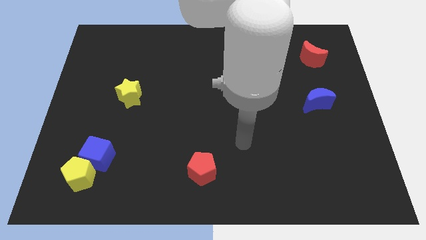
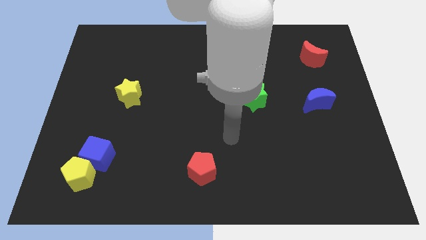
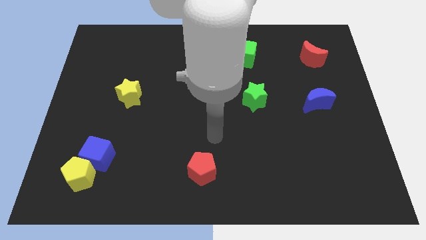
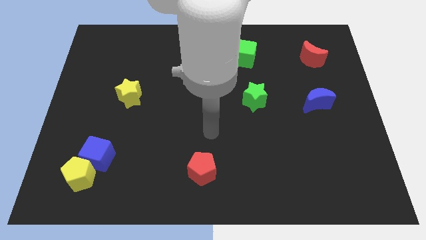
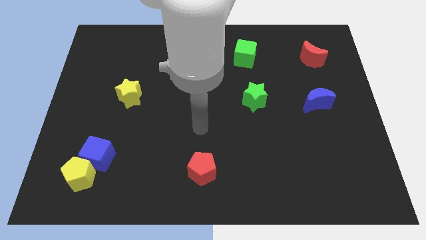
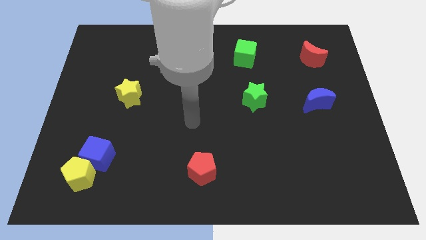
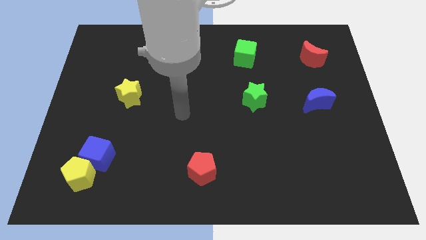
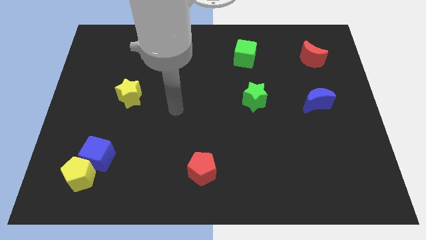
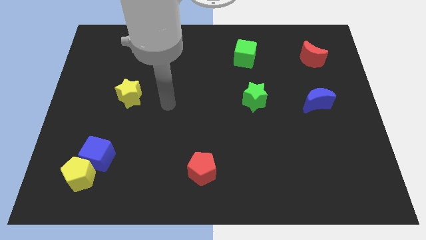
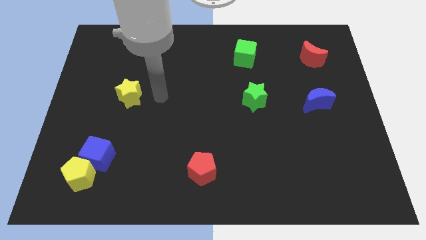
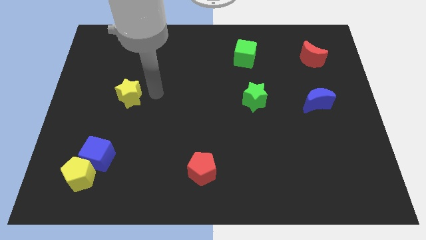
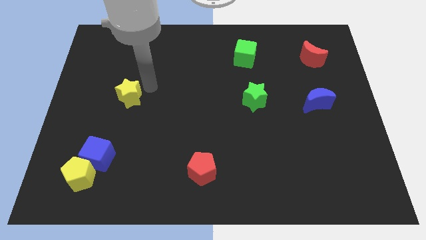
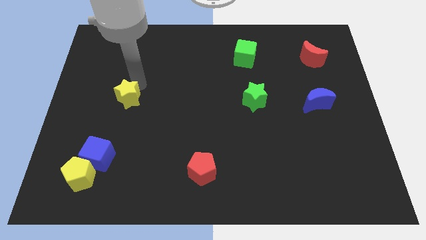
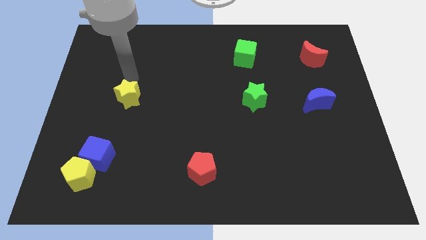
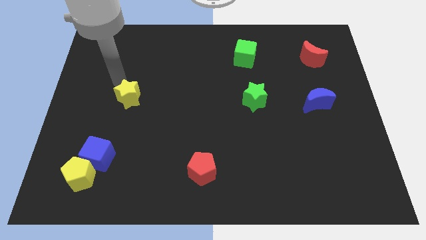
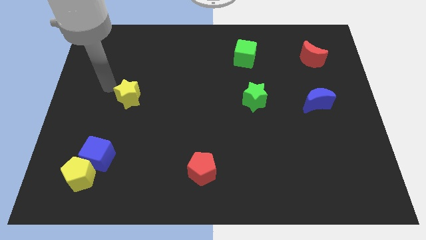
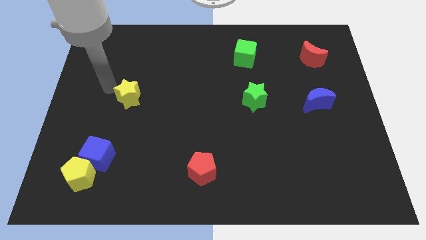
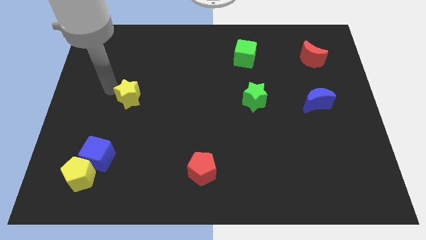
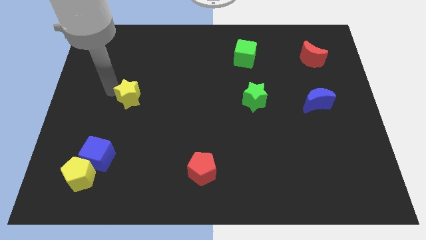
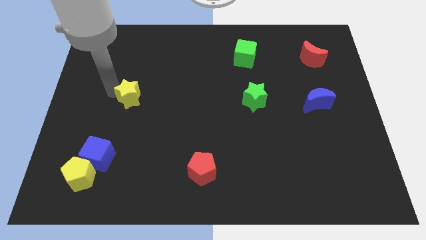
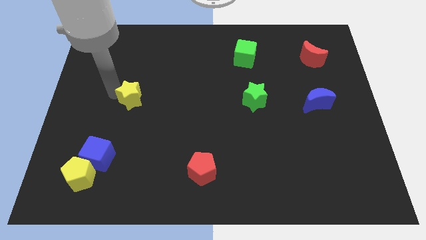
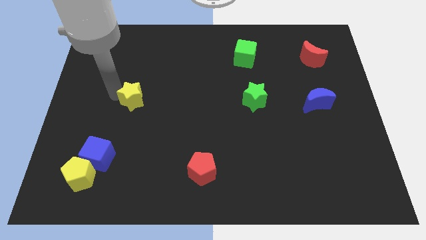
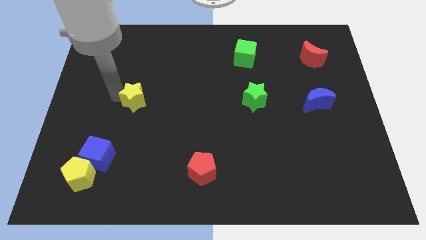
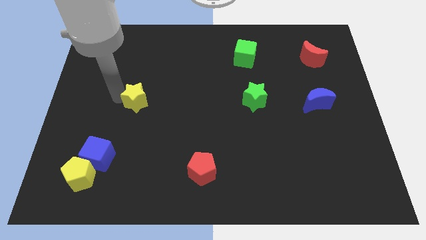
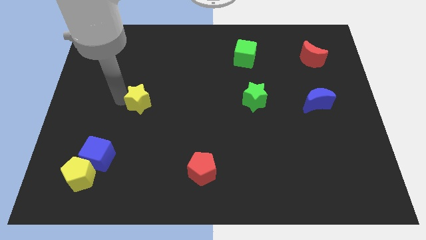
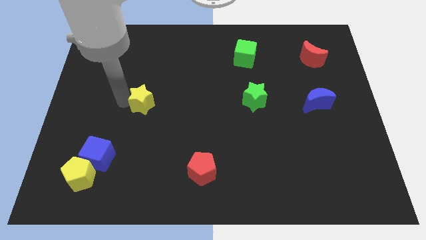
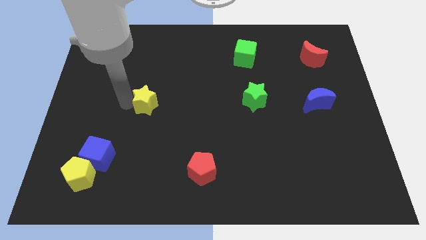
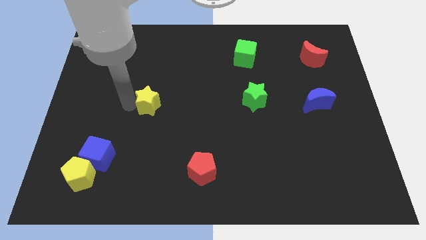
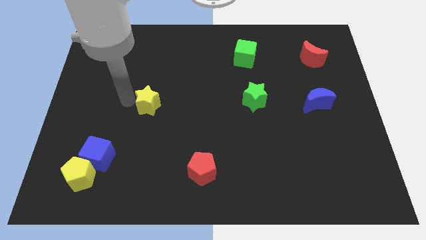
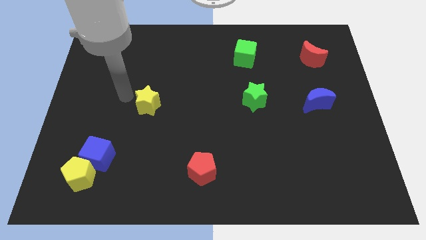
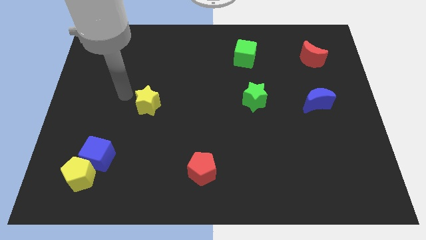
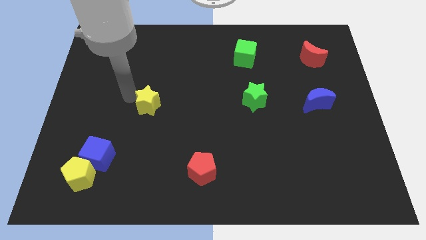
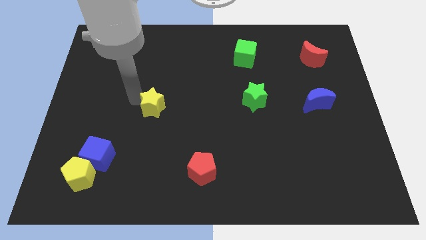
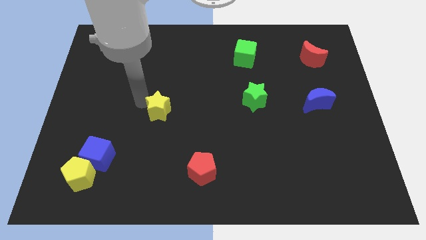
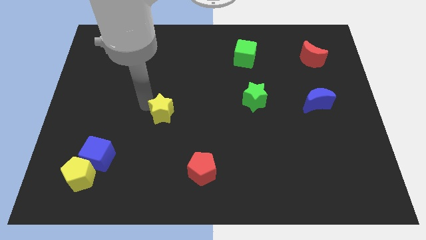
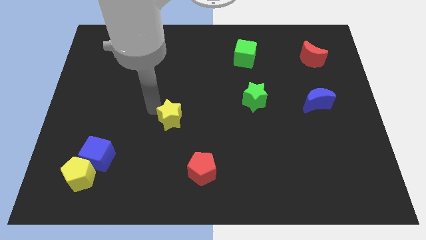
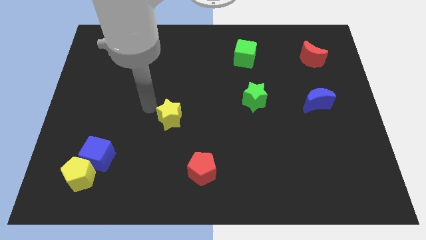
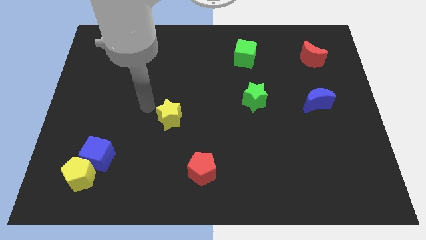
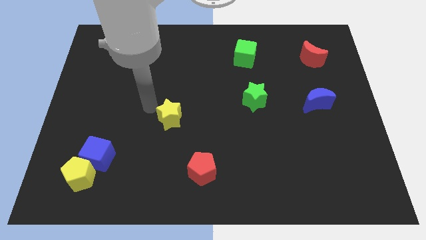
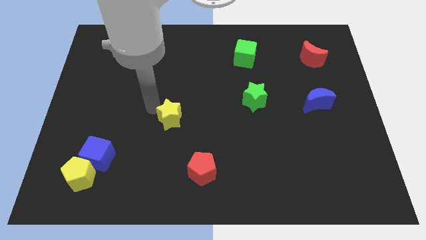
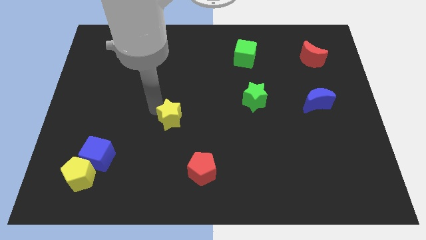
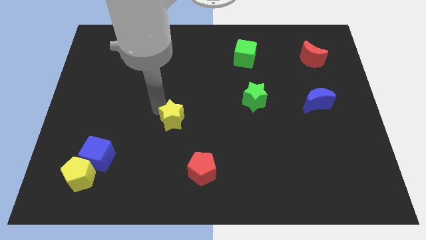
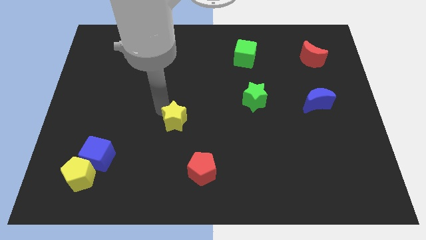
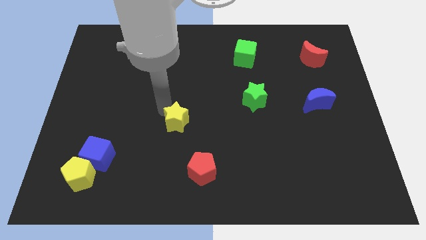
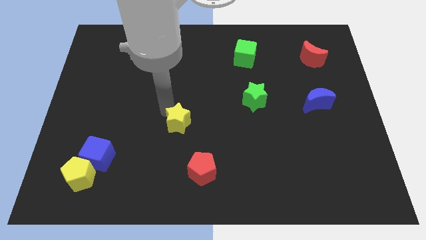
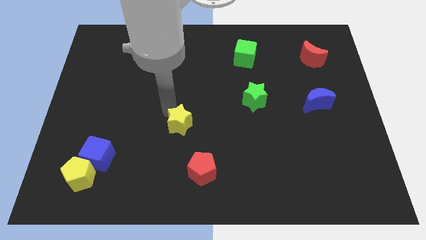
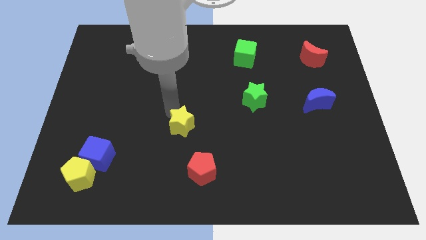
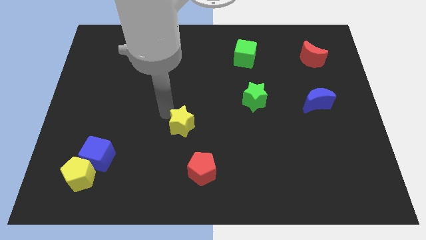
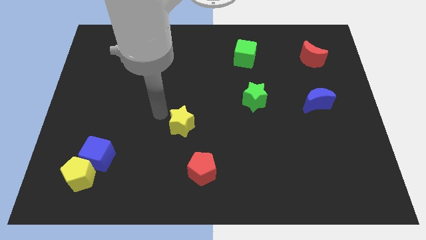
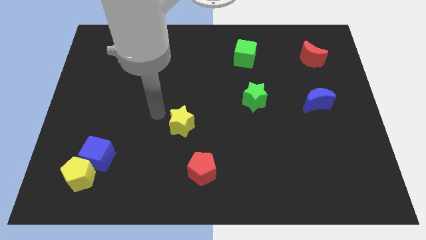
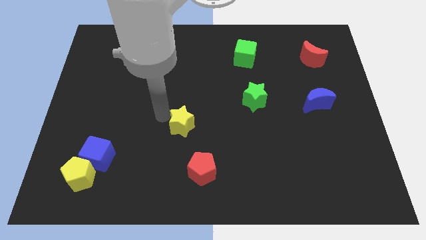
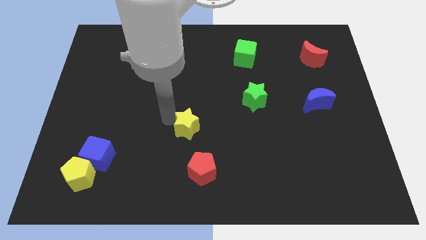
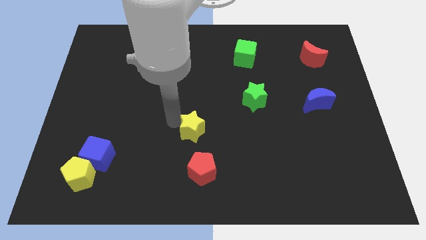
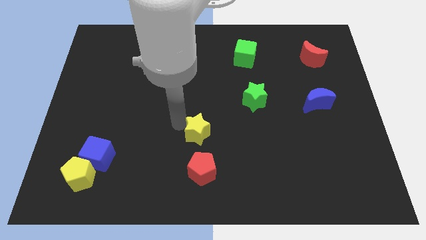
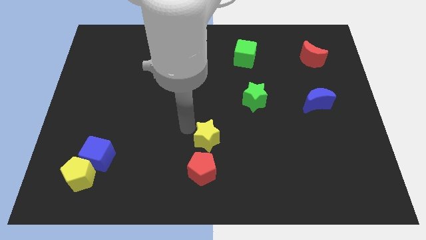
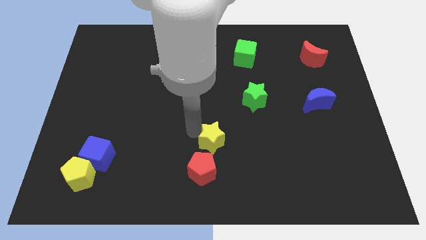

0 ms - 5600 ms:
put the yellow star to the top right side of the red pentagon

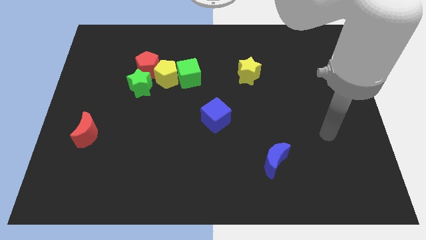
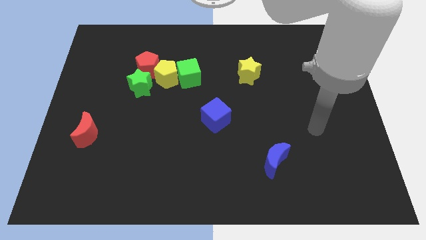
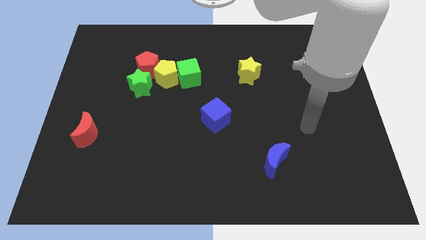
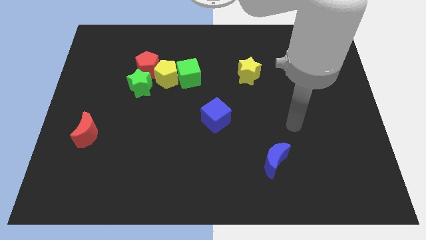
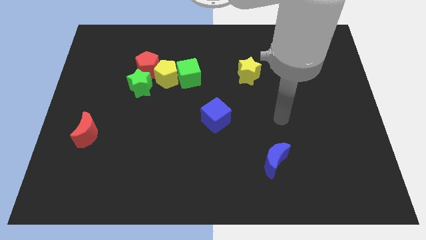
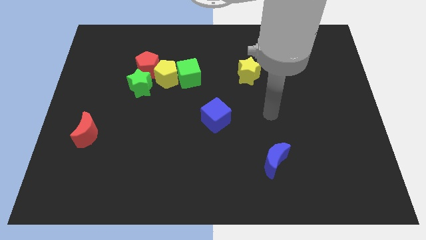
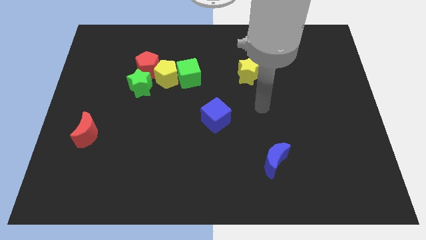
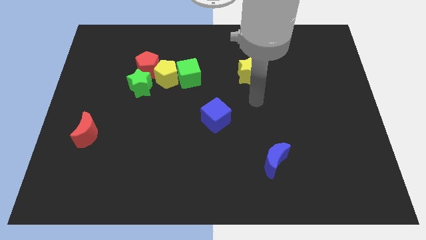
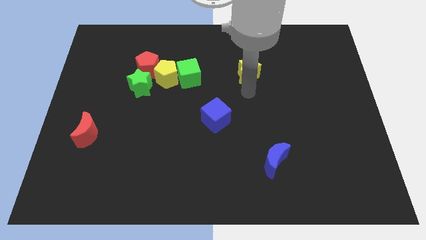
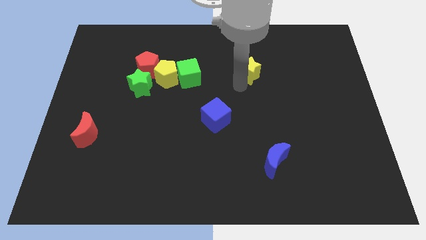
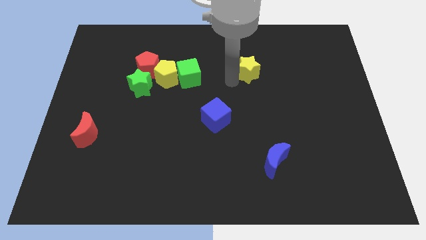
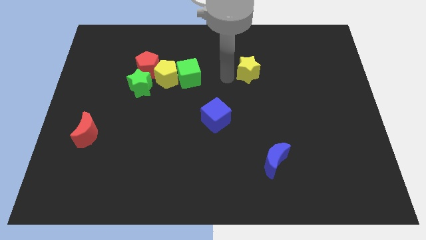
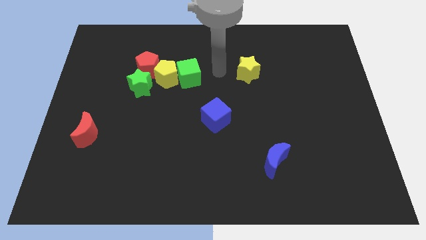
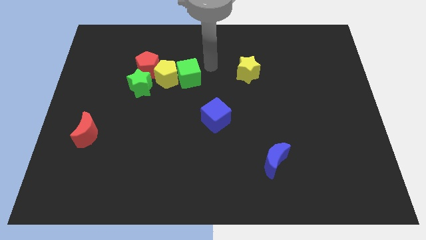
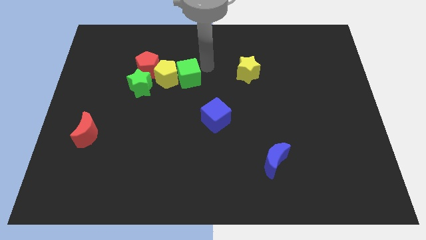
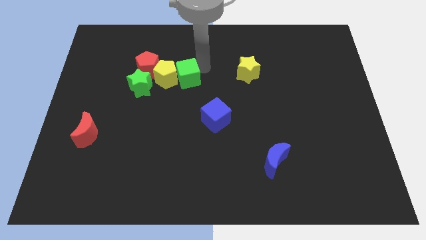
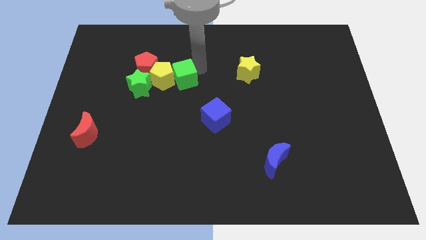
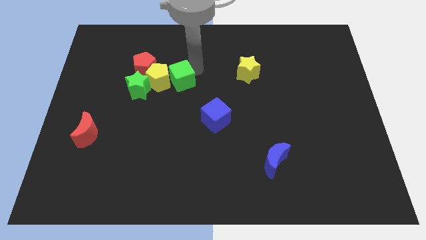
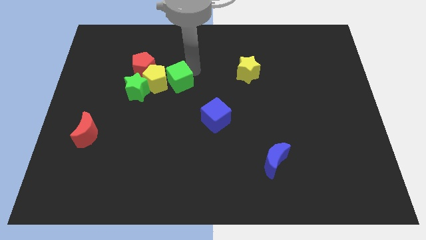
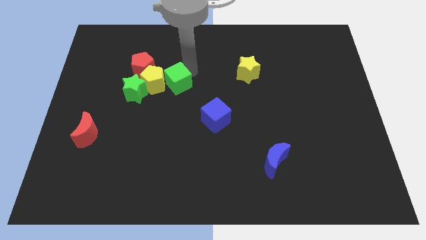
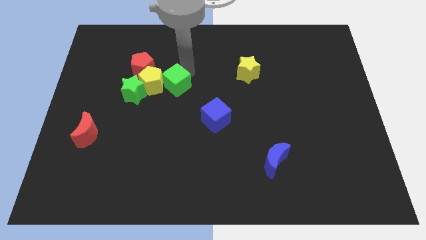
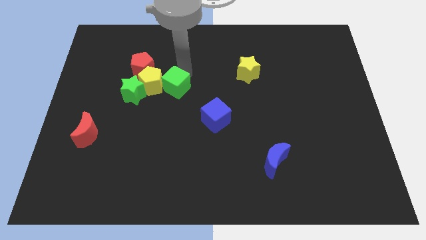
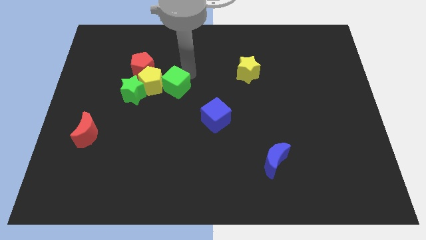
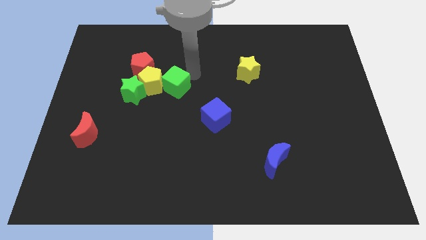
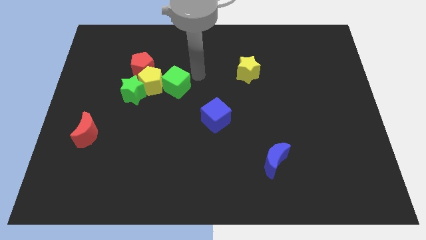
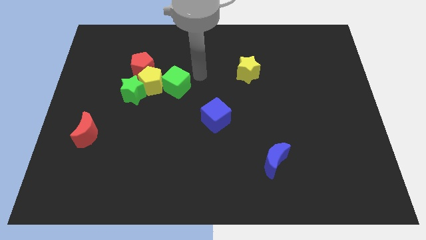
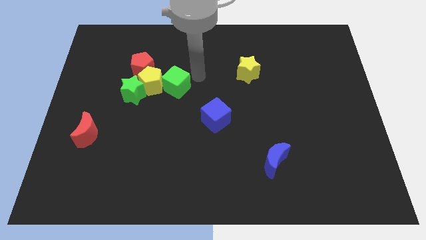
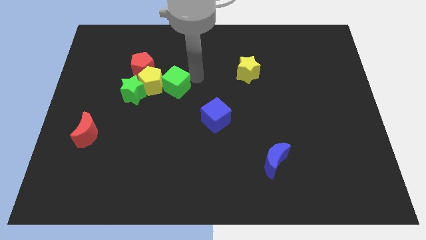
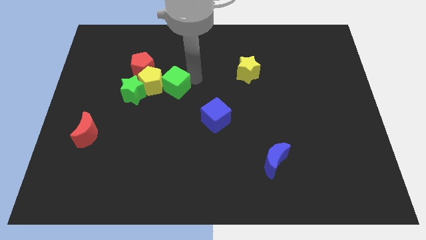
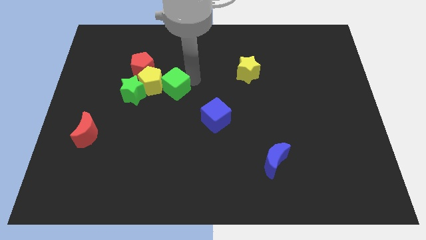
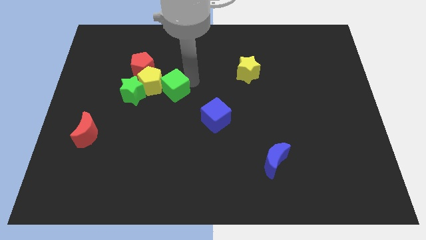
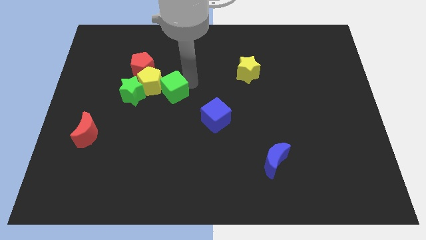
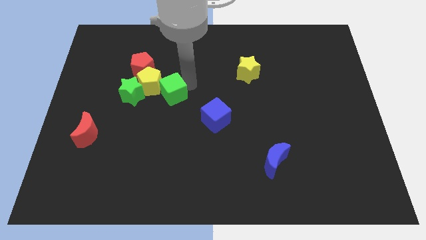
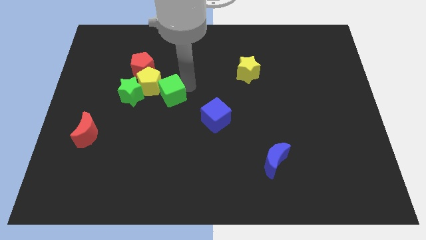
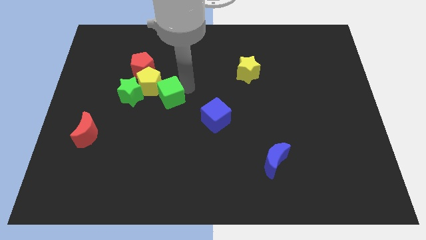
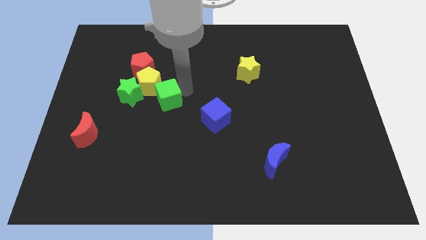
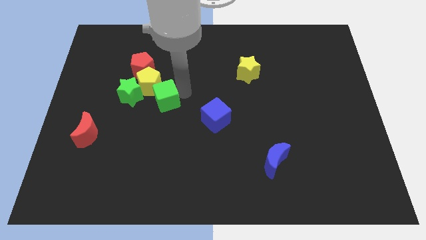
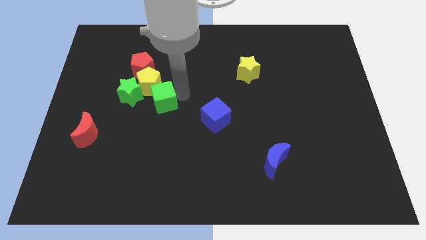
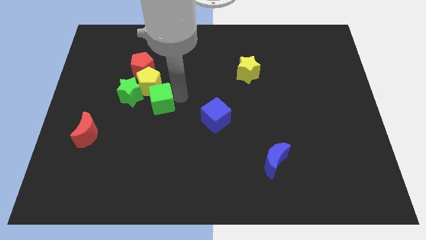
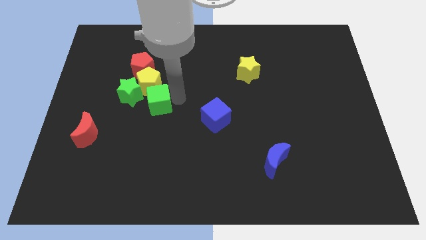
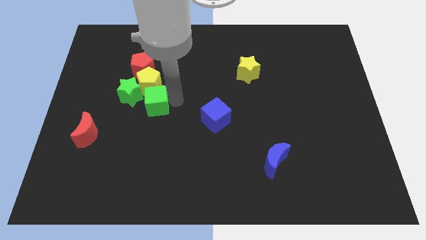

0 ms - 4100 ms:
put the green cube to the bottom side of the red pentagon
